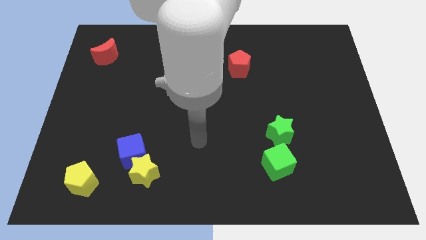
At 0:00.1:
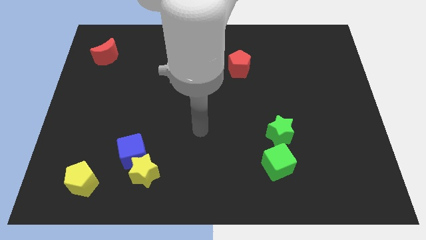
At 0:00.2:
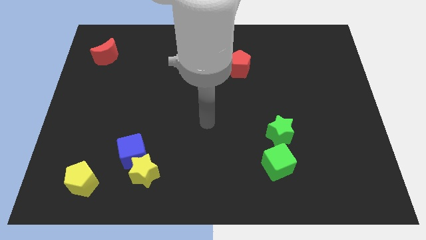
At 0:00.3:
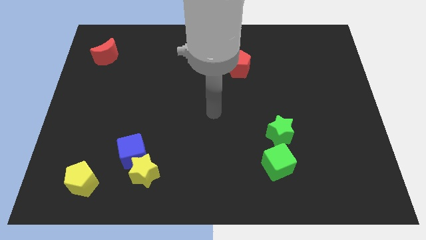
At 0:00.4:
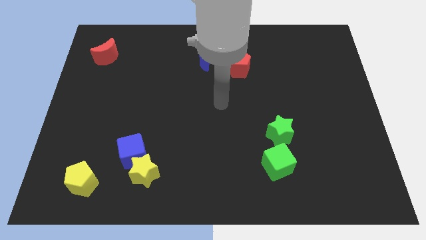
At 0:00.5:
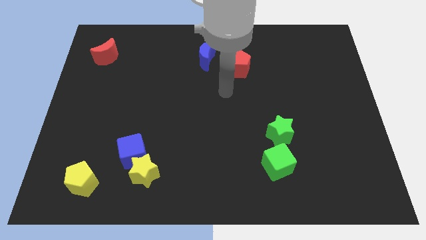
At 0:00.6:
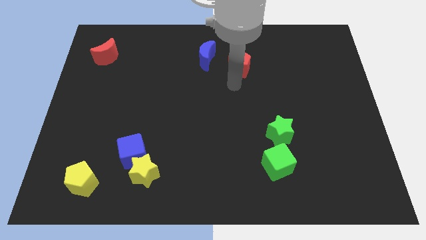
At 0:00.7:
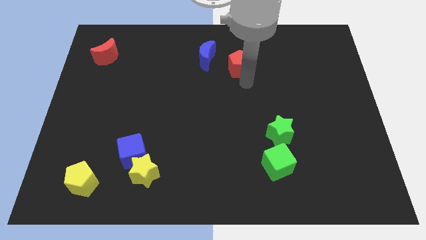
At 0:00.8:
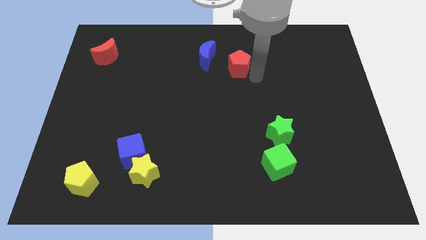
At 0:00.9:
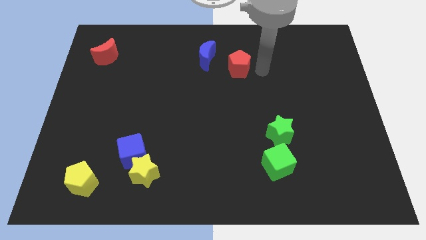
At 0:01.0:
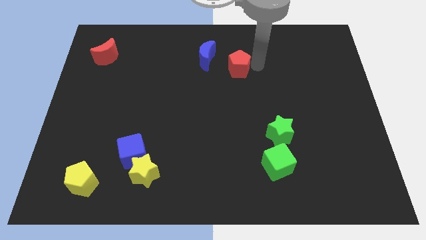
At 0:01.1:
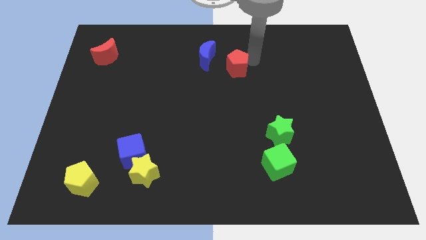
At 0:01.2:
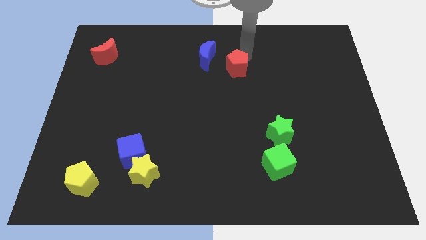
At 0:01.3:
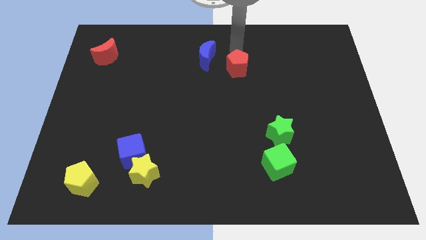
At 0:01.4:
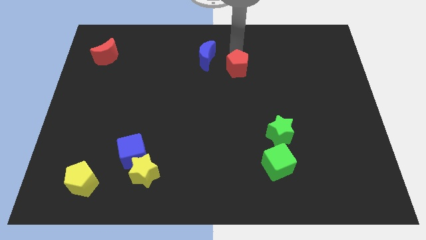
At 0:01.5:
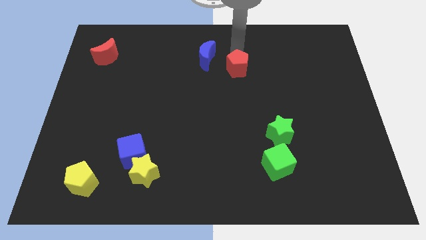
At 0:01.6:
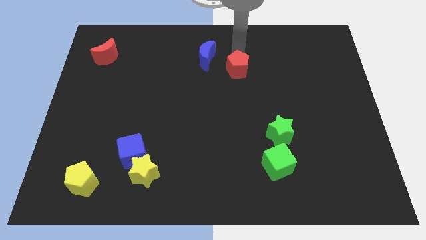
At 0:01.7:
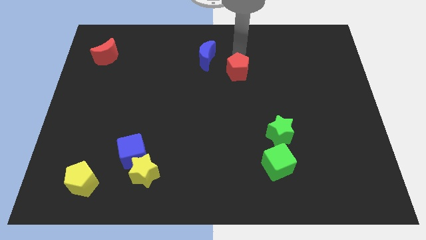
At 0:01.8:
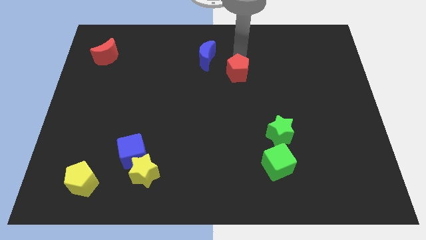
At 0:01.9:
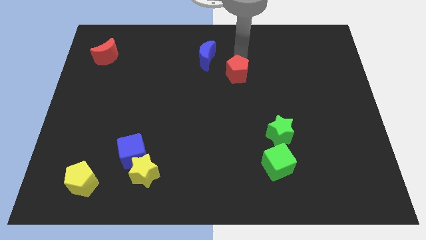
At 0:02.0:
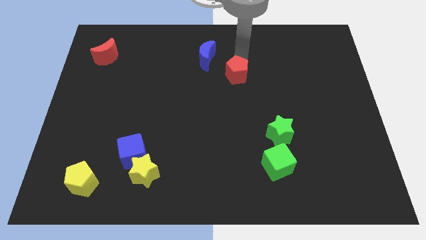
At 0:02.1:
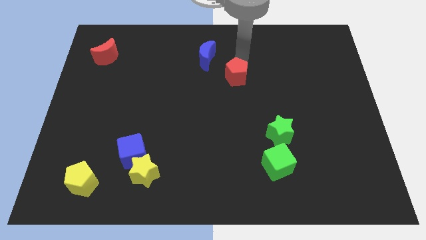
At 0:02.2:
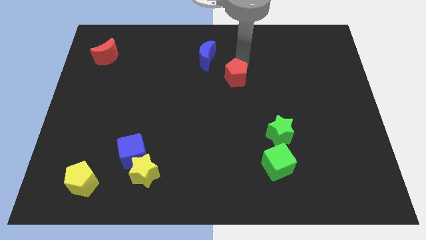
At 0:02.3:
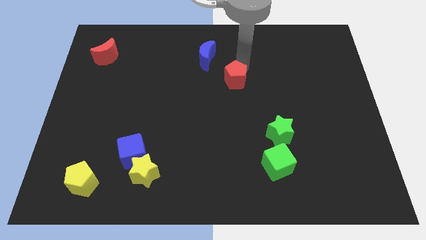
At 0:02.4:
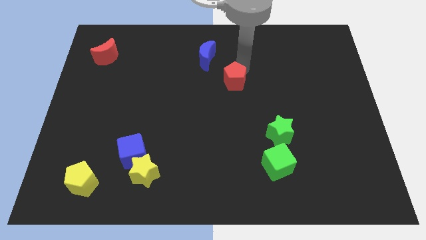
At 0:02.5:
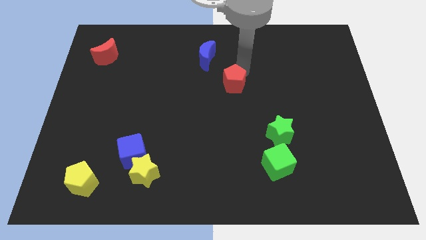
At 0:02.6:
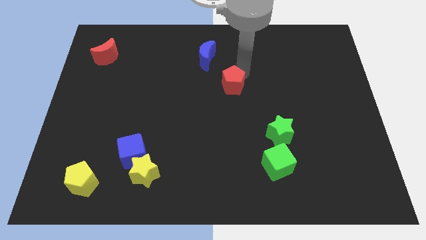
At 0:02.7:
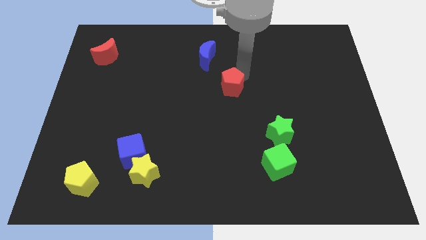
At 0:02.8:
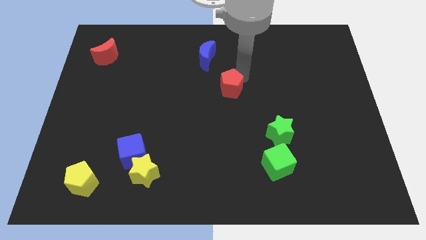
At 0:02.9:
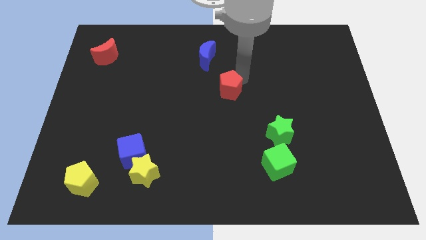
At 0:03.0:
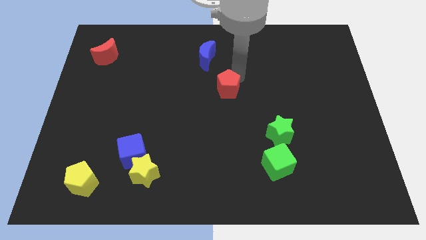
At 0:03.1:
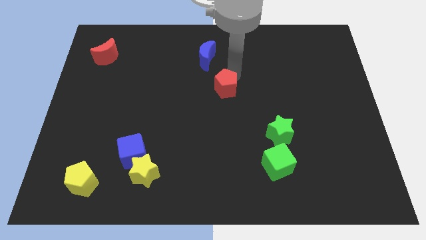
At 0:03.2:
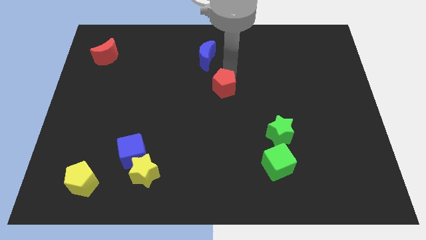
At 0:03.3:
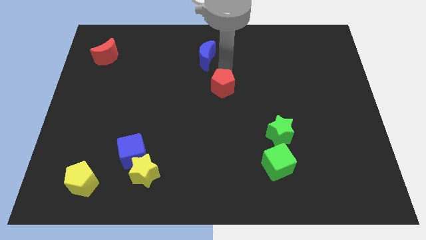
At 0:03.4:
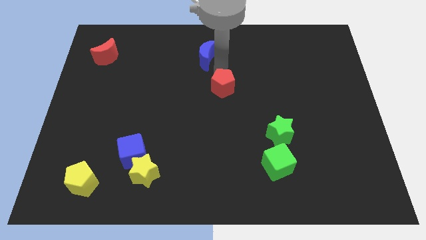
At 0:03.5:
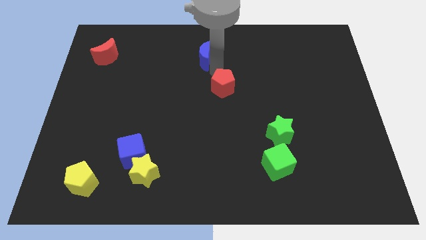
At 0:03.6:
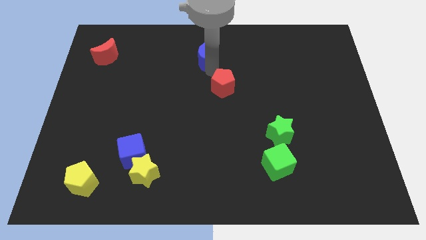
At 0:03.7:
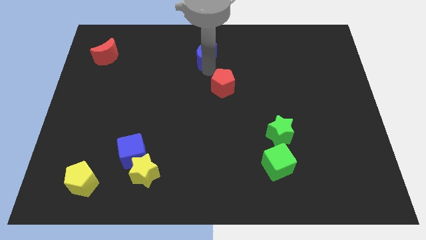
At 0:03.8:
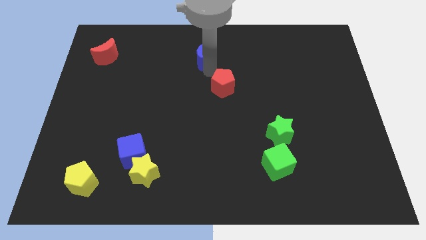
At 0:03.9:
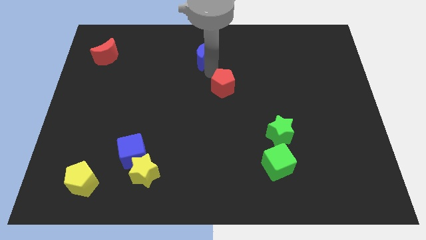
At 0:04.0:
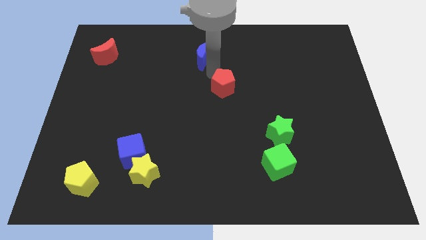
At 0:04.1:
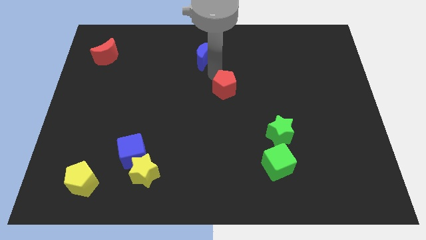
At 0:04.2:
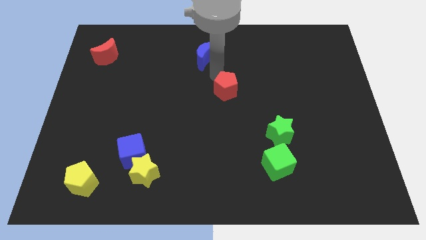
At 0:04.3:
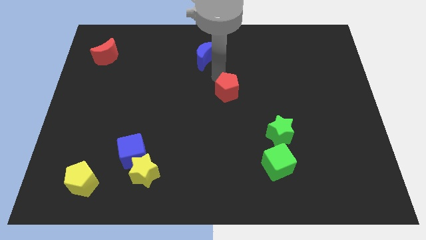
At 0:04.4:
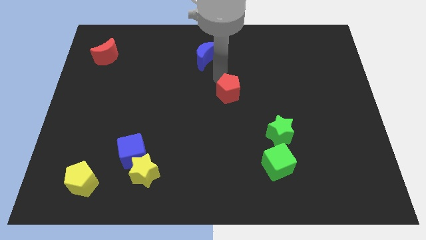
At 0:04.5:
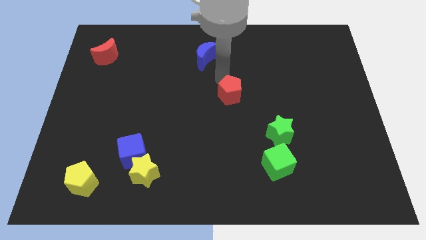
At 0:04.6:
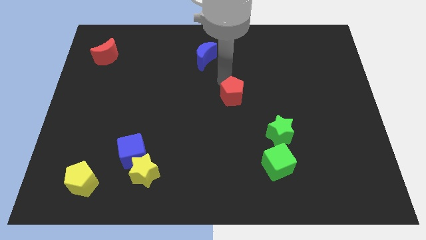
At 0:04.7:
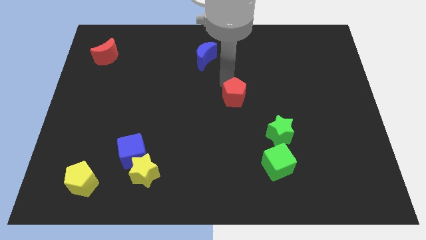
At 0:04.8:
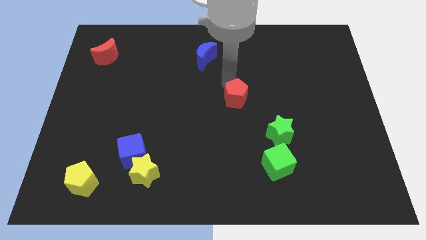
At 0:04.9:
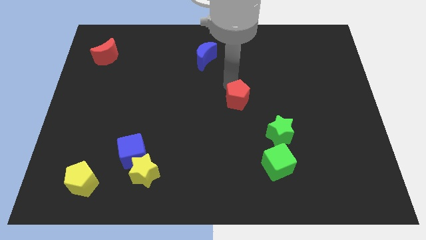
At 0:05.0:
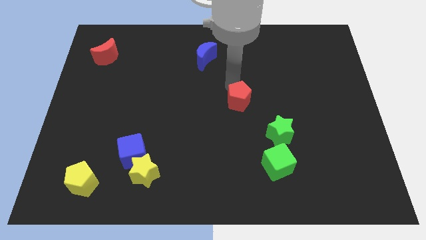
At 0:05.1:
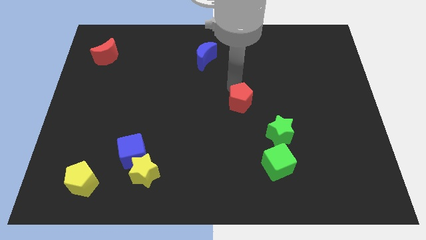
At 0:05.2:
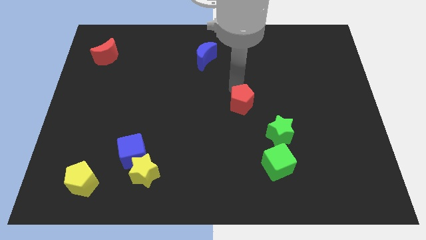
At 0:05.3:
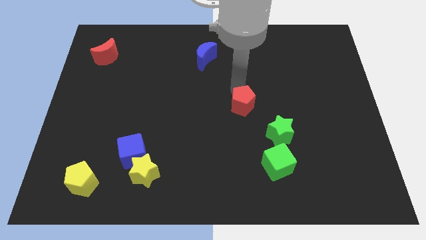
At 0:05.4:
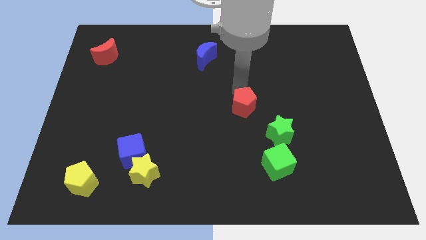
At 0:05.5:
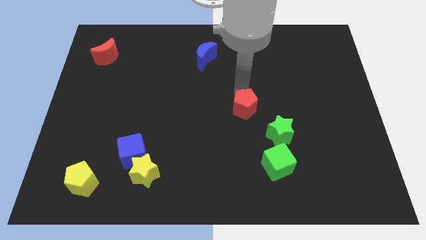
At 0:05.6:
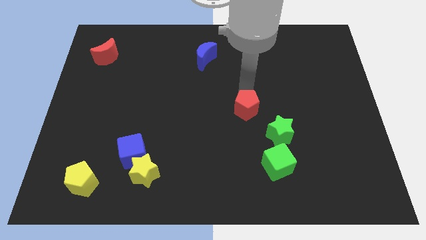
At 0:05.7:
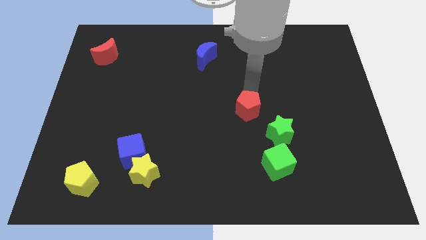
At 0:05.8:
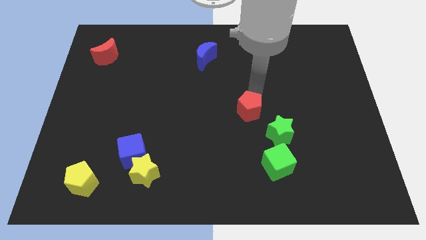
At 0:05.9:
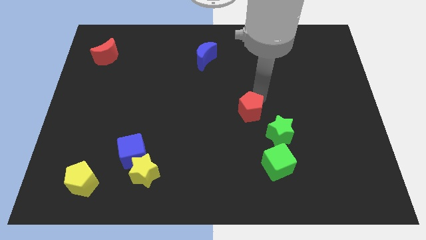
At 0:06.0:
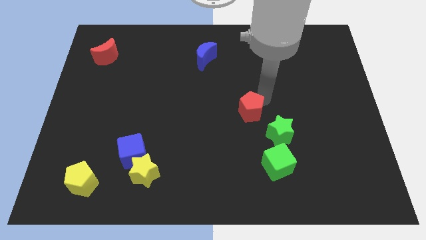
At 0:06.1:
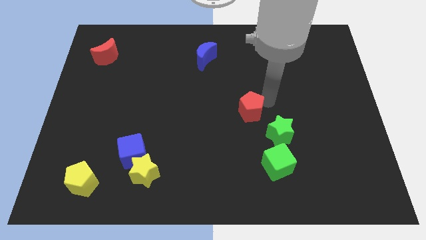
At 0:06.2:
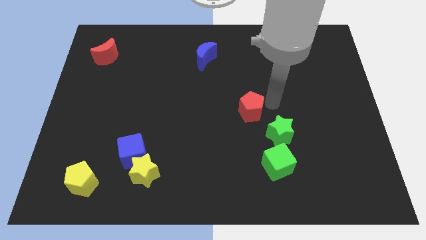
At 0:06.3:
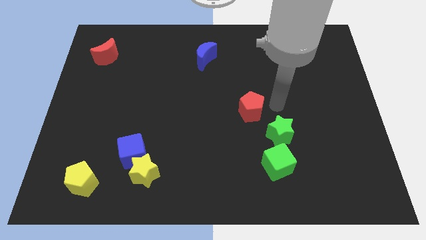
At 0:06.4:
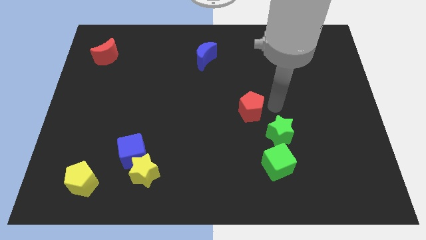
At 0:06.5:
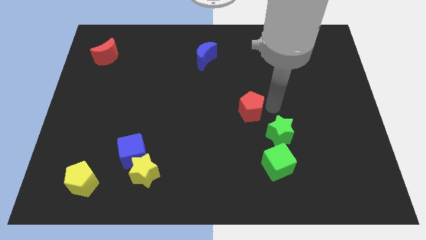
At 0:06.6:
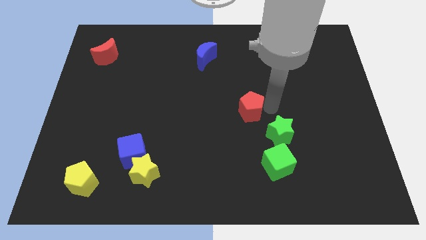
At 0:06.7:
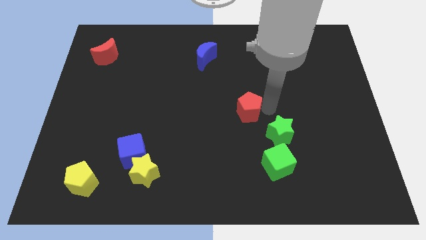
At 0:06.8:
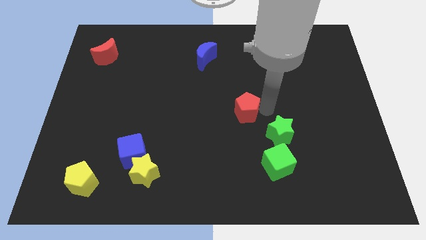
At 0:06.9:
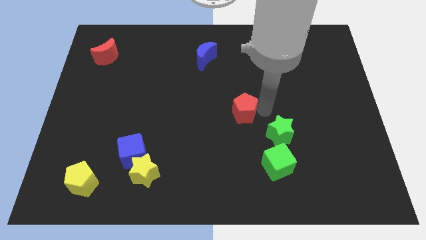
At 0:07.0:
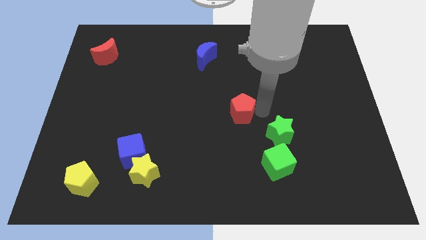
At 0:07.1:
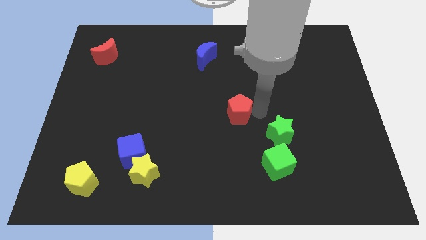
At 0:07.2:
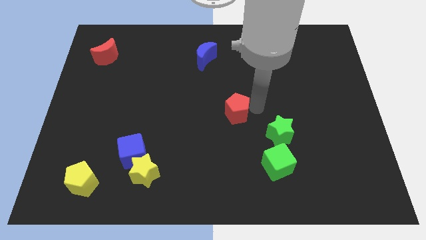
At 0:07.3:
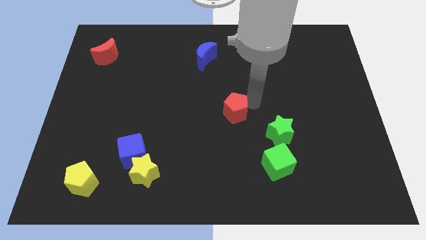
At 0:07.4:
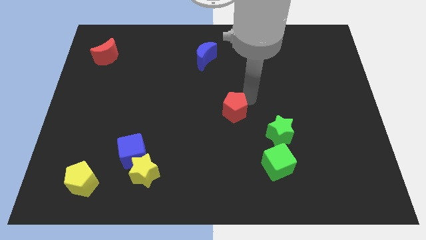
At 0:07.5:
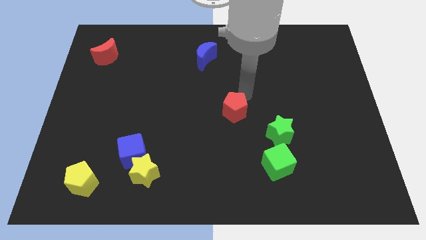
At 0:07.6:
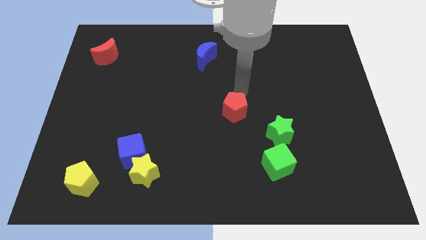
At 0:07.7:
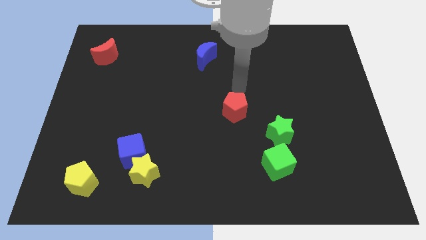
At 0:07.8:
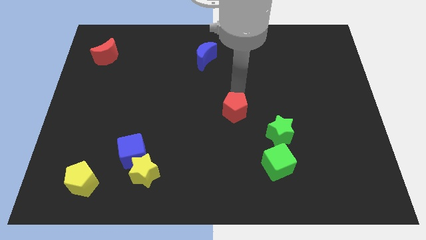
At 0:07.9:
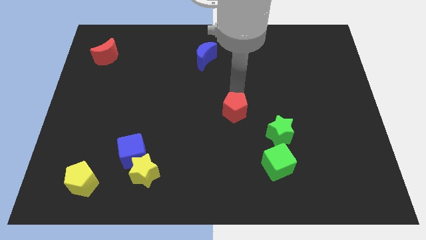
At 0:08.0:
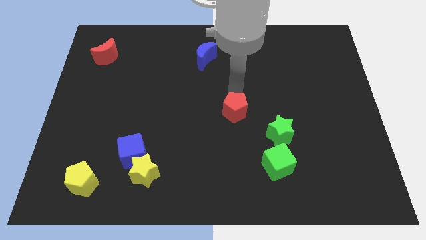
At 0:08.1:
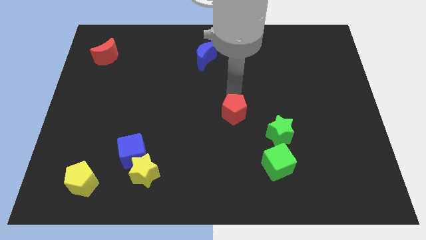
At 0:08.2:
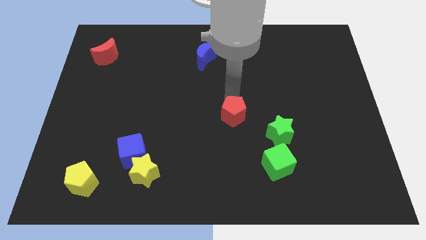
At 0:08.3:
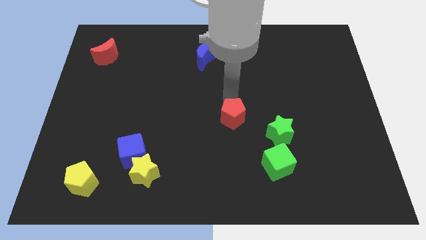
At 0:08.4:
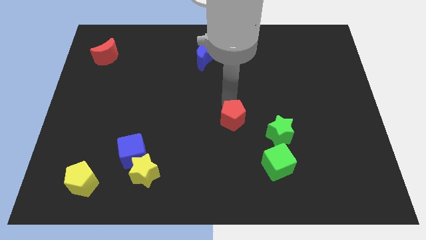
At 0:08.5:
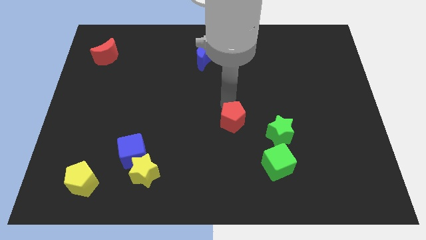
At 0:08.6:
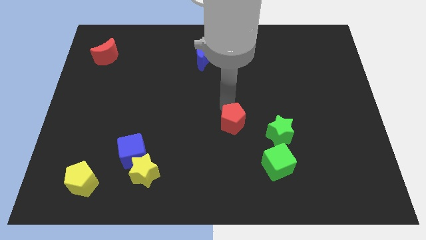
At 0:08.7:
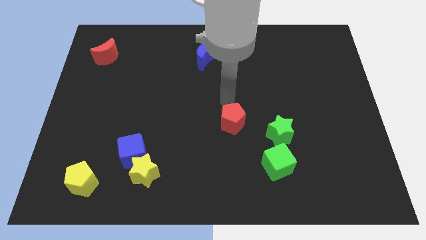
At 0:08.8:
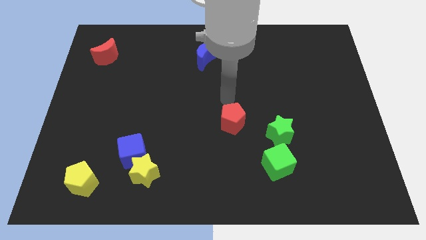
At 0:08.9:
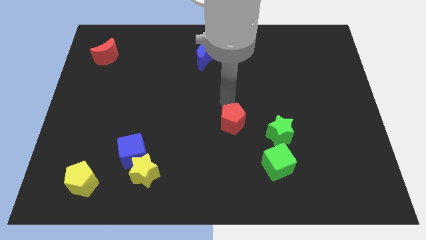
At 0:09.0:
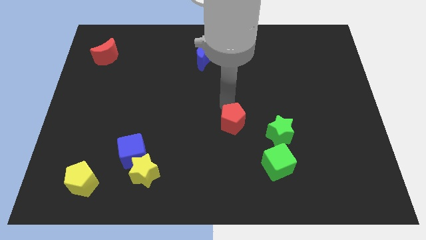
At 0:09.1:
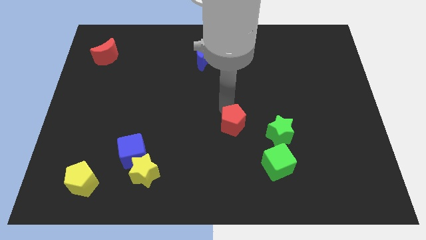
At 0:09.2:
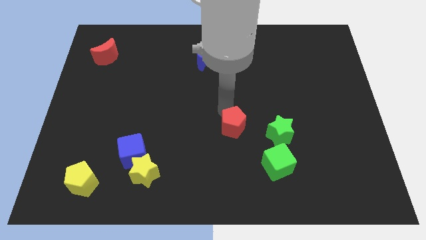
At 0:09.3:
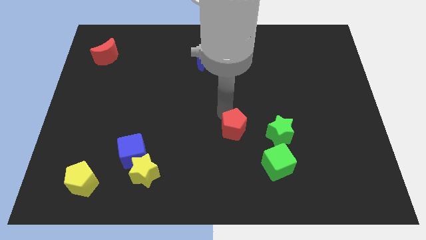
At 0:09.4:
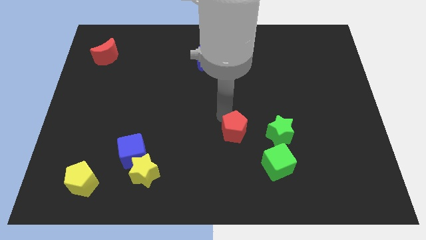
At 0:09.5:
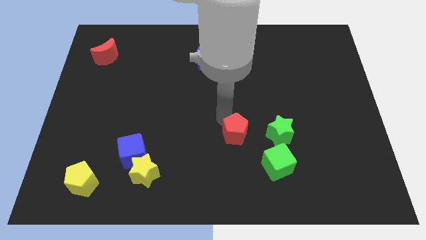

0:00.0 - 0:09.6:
move the red pentagon downwards
